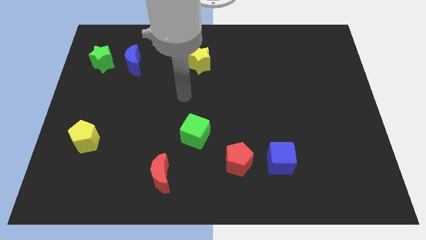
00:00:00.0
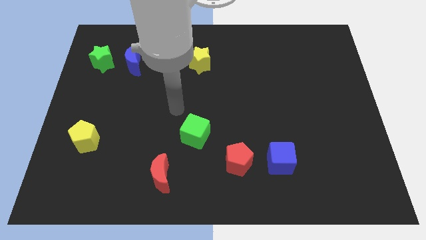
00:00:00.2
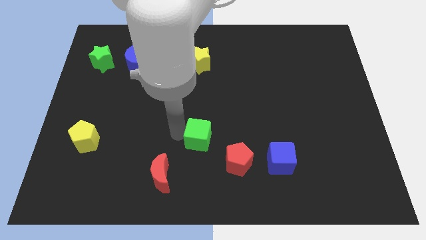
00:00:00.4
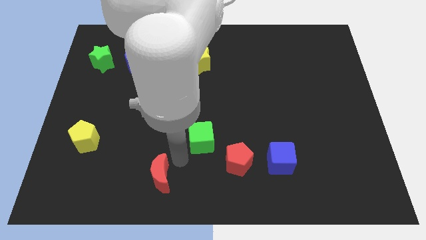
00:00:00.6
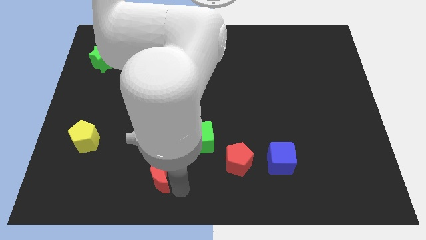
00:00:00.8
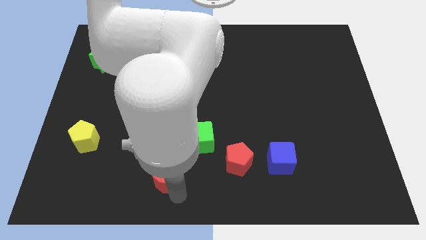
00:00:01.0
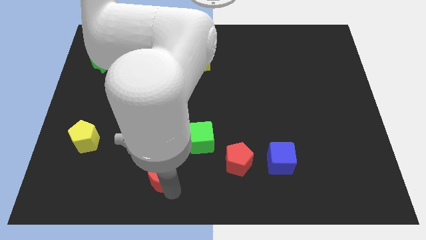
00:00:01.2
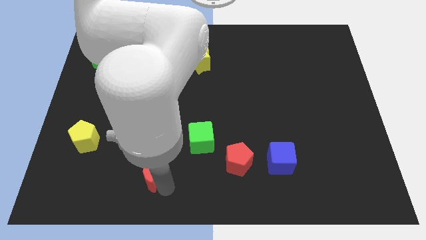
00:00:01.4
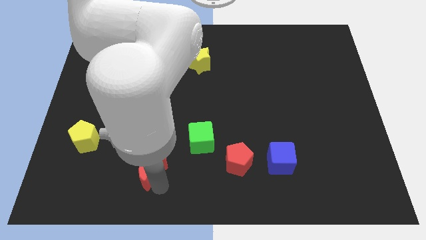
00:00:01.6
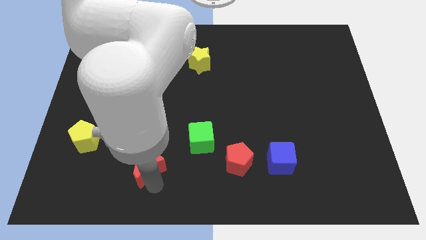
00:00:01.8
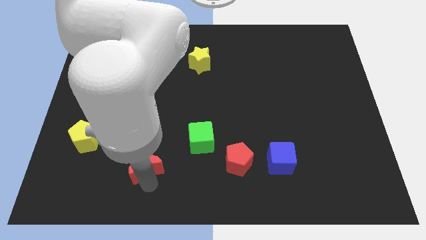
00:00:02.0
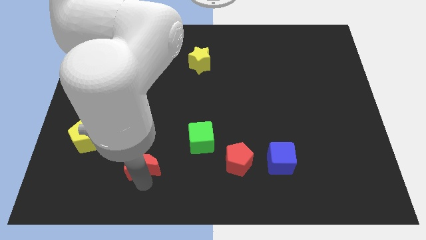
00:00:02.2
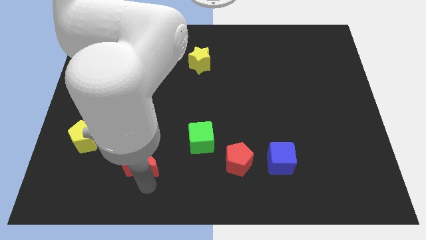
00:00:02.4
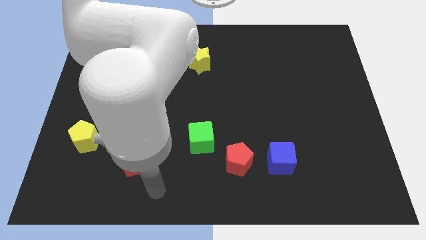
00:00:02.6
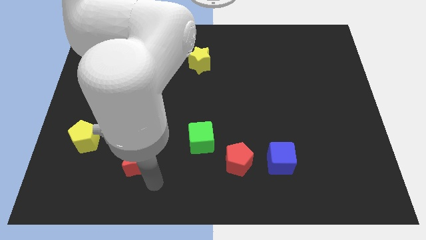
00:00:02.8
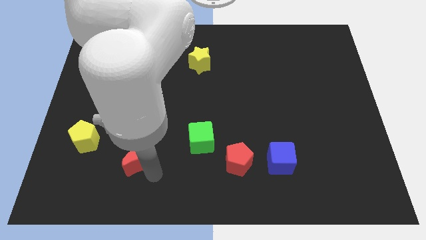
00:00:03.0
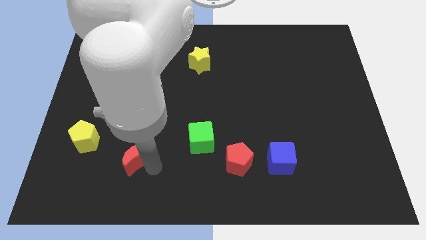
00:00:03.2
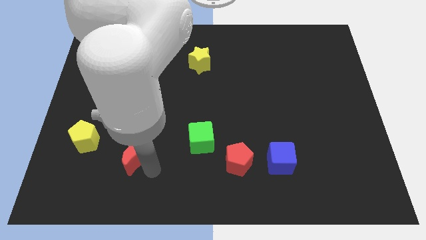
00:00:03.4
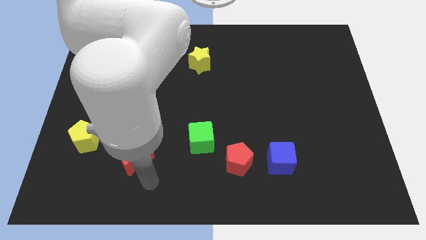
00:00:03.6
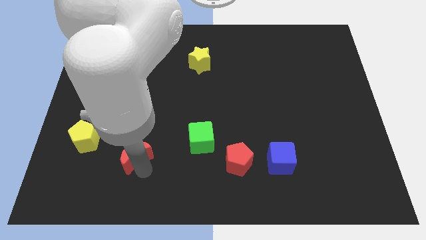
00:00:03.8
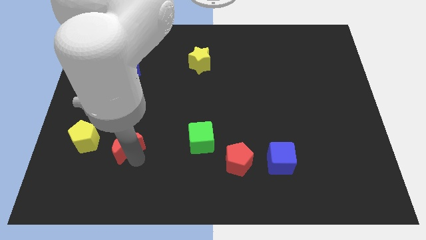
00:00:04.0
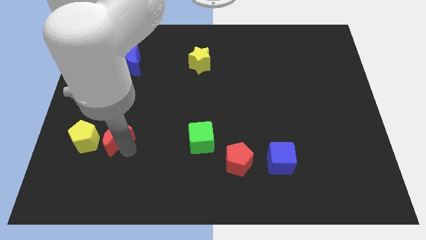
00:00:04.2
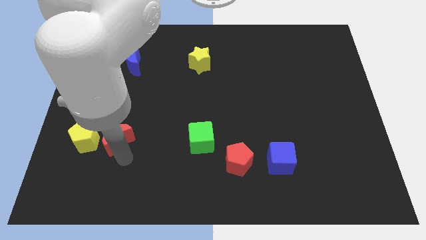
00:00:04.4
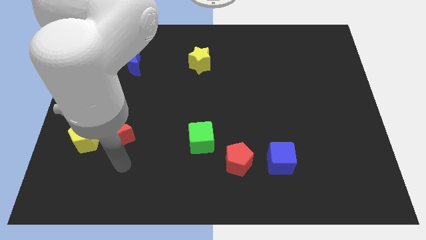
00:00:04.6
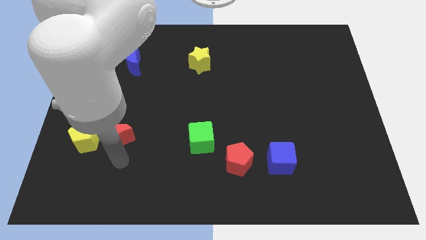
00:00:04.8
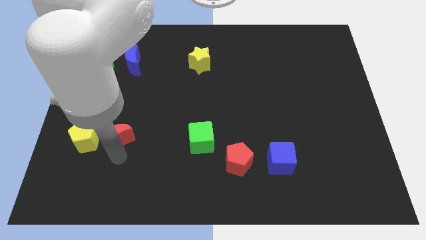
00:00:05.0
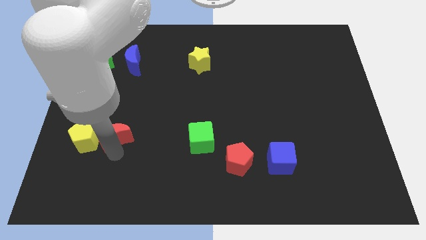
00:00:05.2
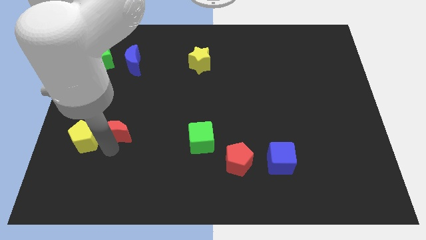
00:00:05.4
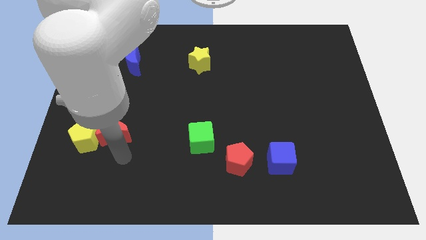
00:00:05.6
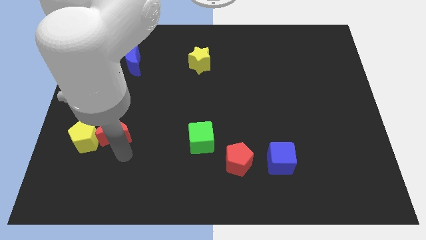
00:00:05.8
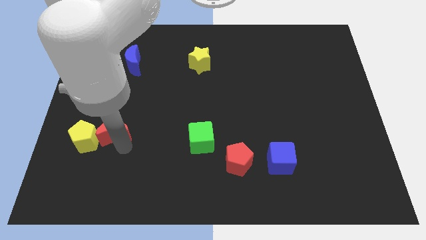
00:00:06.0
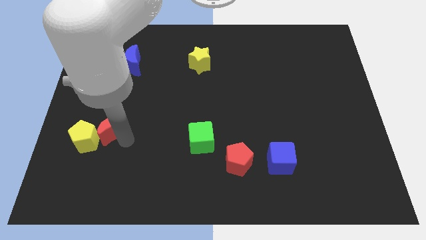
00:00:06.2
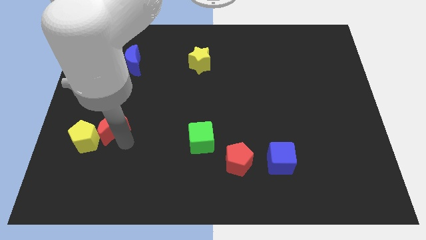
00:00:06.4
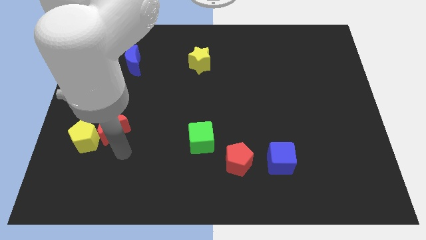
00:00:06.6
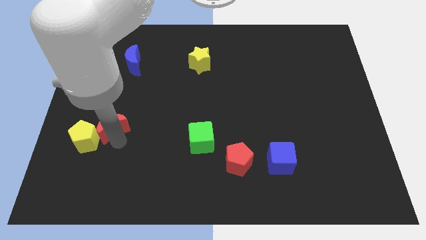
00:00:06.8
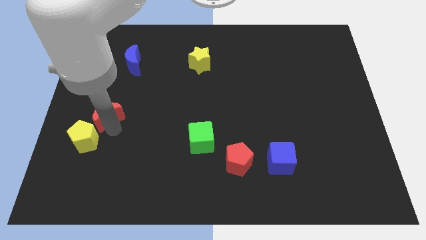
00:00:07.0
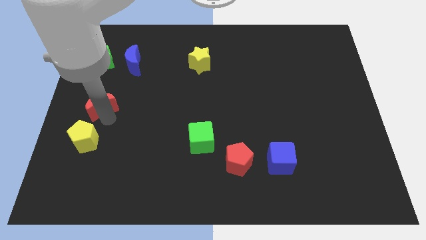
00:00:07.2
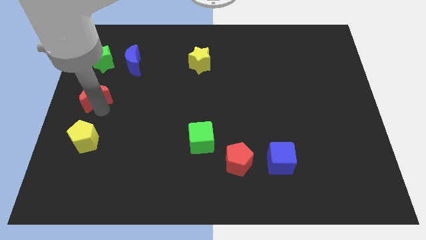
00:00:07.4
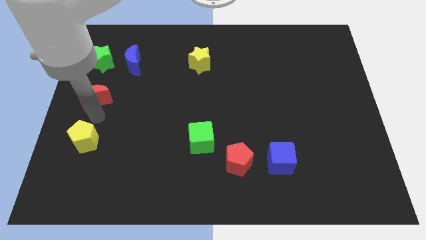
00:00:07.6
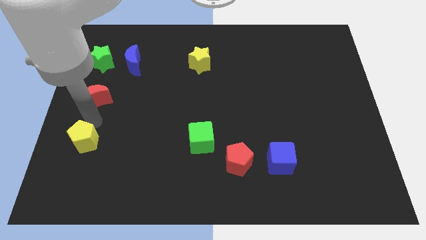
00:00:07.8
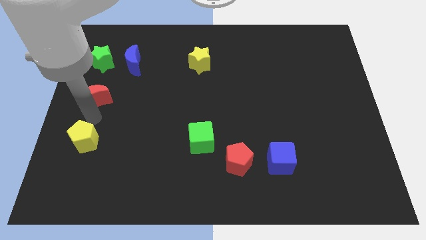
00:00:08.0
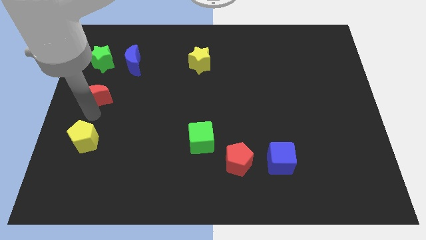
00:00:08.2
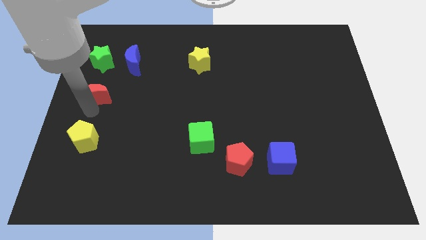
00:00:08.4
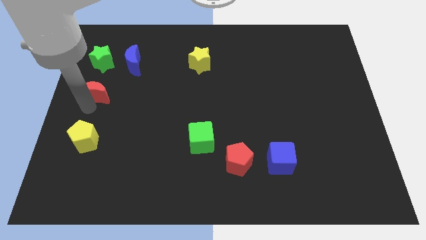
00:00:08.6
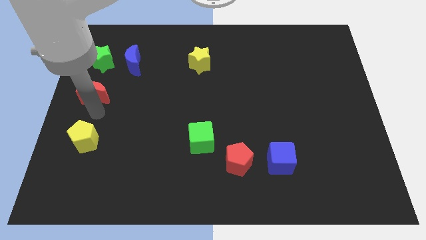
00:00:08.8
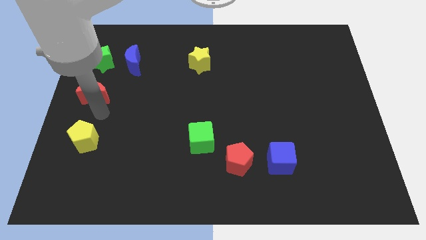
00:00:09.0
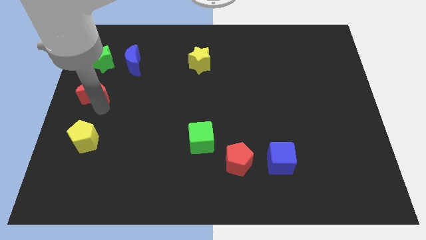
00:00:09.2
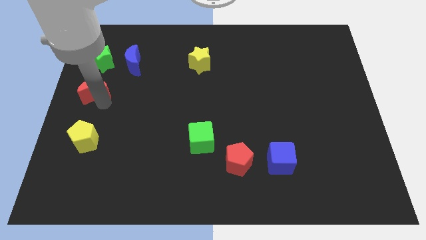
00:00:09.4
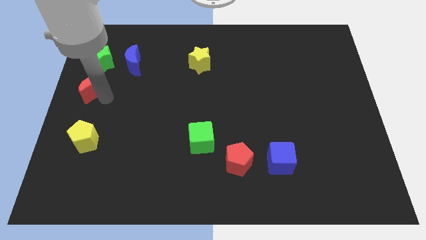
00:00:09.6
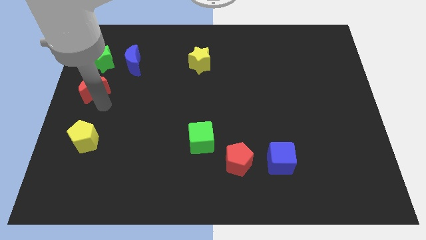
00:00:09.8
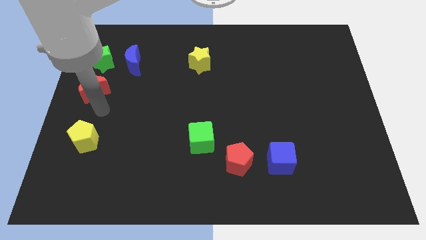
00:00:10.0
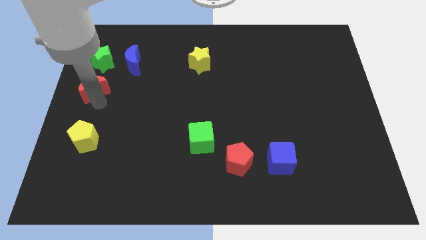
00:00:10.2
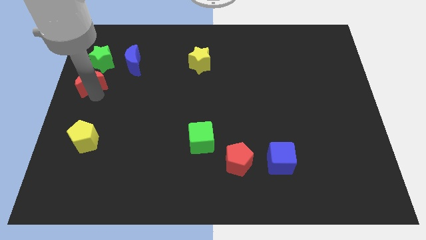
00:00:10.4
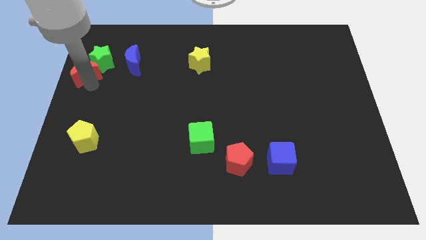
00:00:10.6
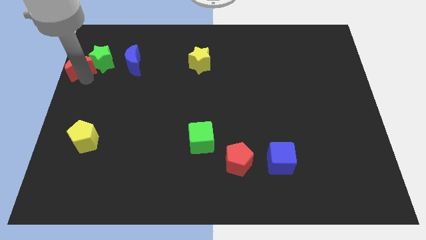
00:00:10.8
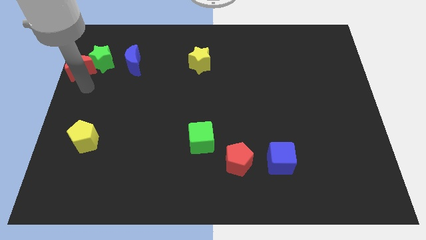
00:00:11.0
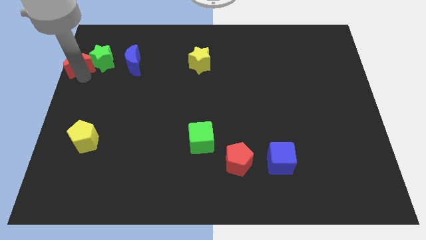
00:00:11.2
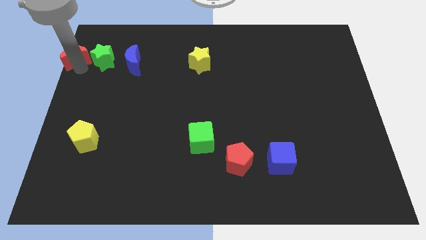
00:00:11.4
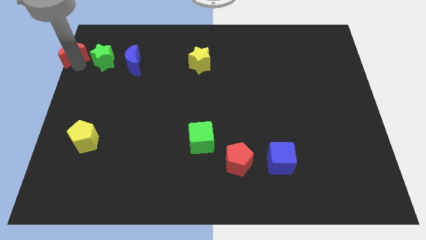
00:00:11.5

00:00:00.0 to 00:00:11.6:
move the red moon to the upper left corner

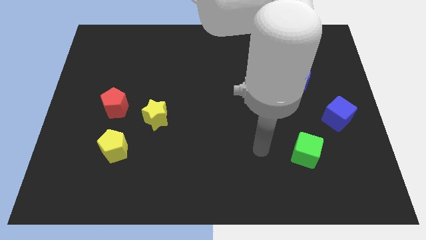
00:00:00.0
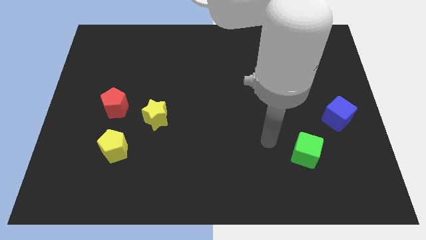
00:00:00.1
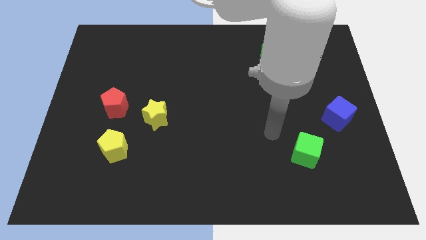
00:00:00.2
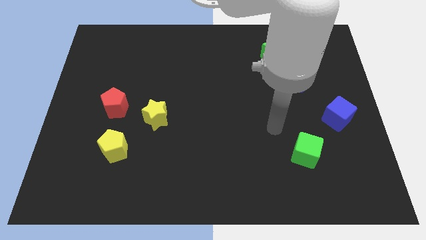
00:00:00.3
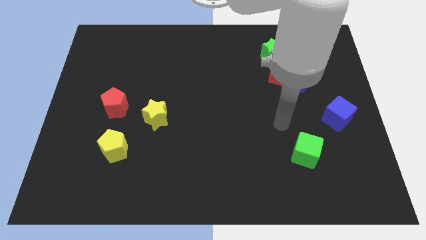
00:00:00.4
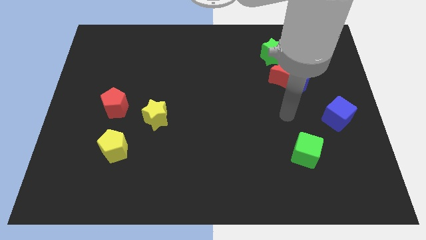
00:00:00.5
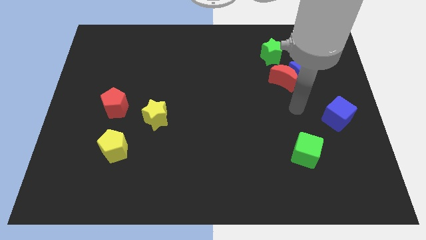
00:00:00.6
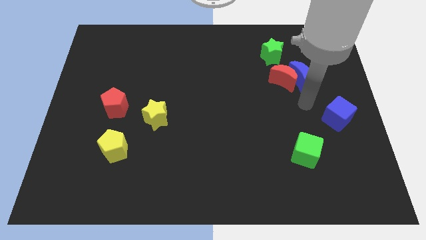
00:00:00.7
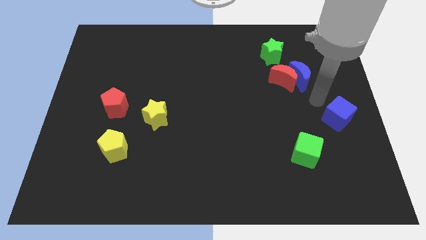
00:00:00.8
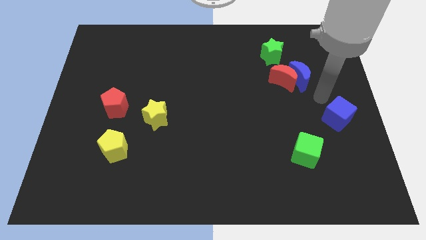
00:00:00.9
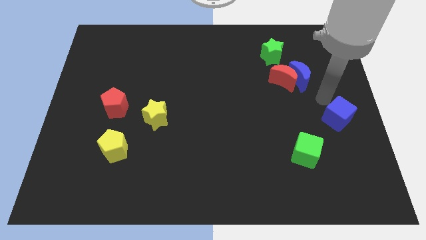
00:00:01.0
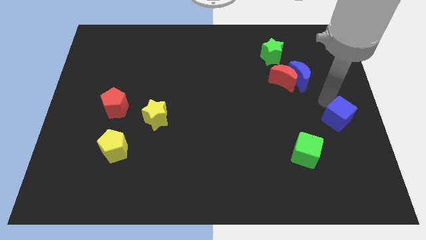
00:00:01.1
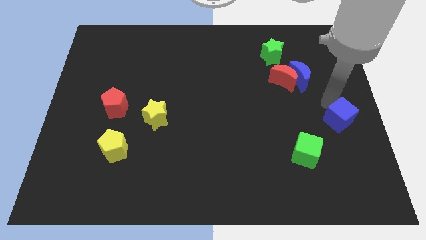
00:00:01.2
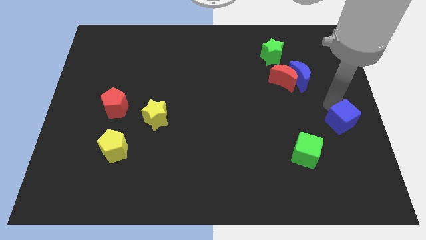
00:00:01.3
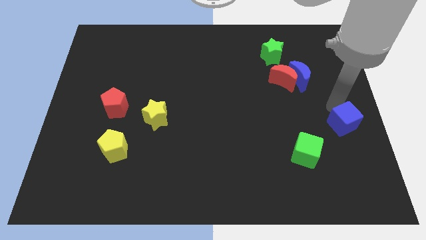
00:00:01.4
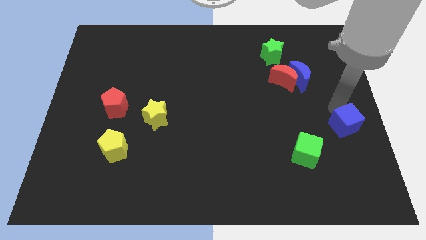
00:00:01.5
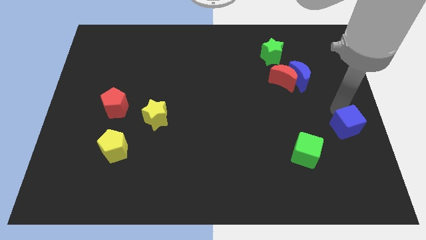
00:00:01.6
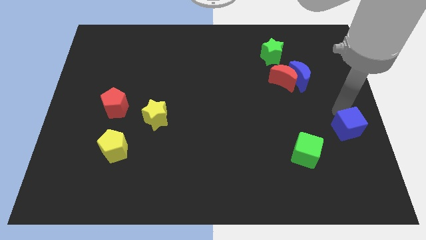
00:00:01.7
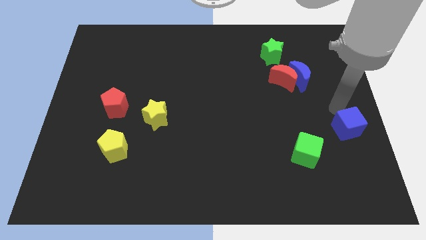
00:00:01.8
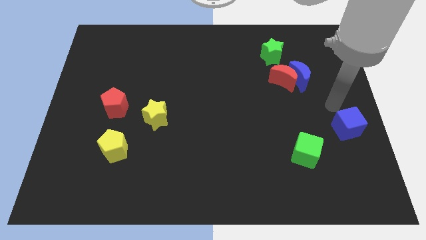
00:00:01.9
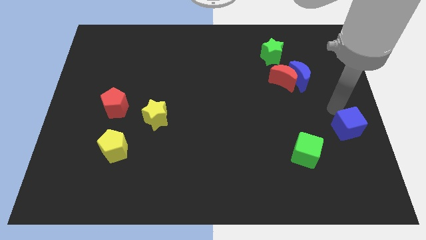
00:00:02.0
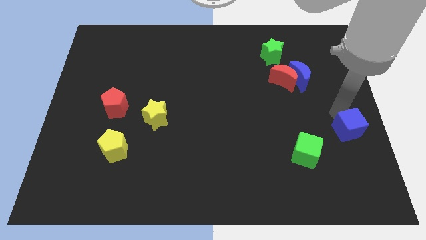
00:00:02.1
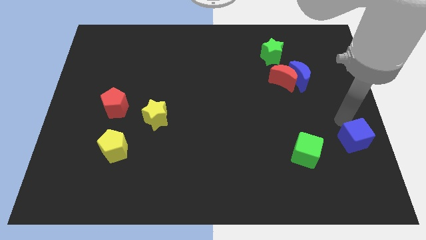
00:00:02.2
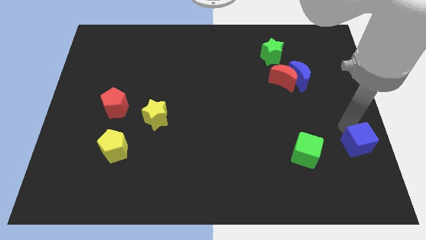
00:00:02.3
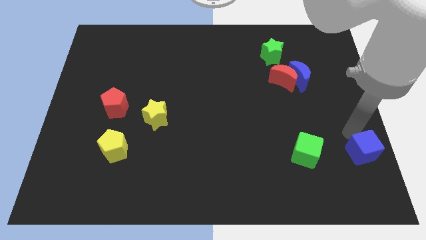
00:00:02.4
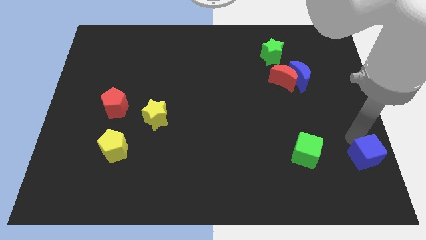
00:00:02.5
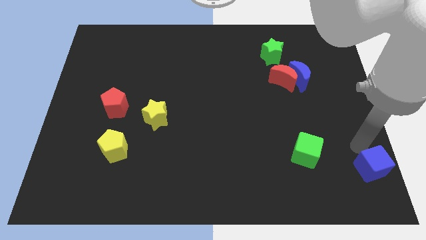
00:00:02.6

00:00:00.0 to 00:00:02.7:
put the blue cube to the bottom right of the board
